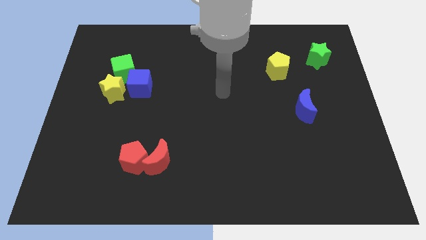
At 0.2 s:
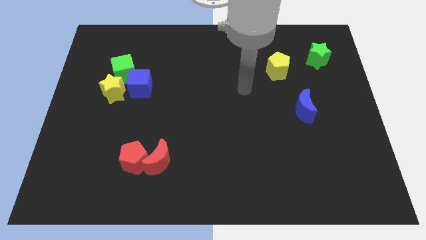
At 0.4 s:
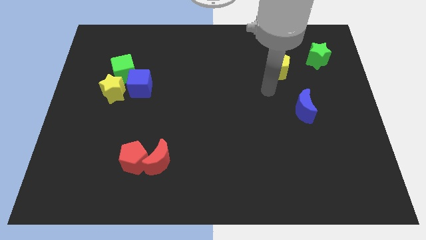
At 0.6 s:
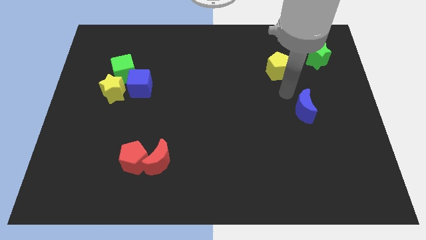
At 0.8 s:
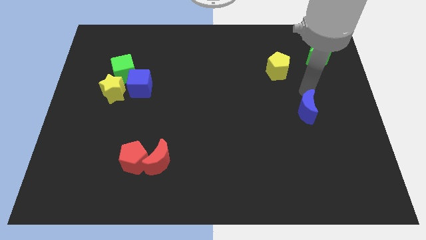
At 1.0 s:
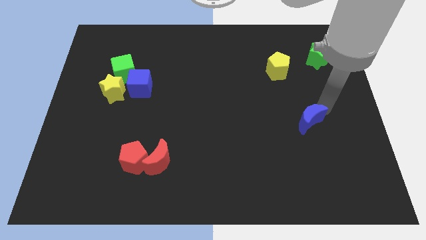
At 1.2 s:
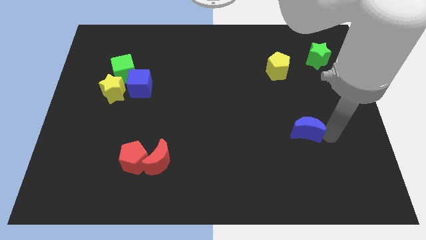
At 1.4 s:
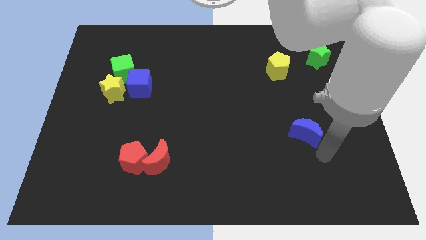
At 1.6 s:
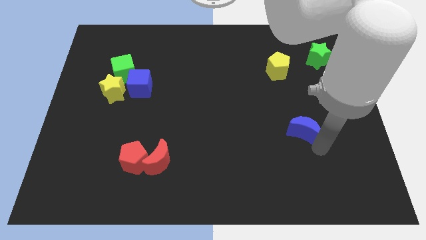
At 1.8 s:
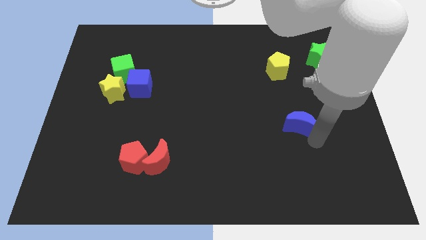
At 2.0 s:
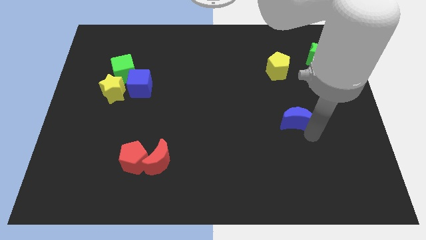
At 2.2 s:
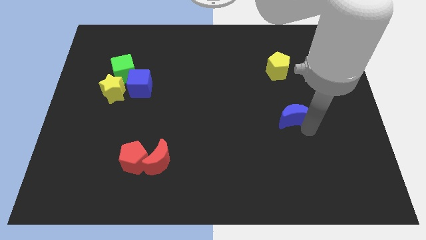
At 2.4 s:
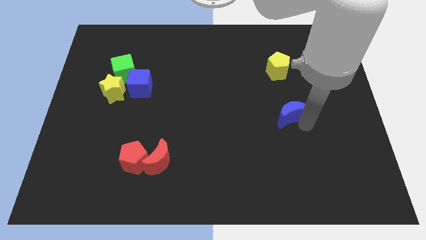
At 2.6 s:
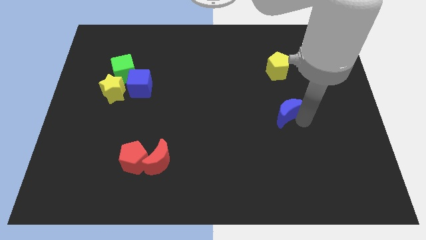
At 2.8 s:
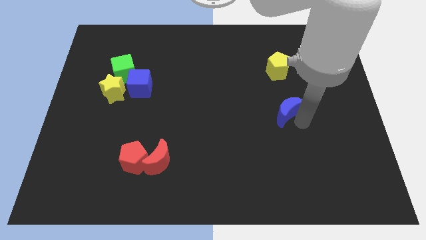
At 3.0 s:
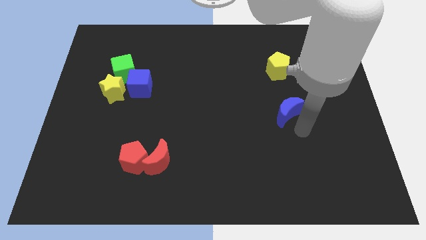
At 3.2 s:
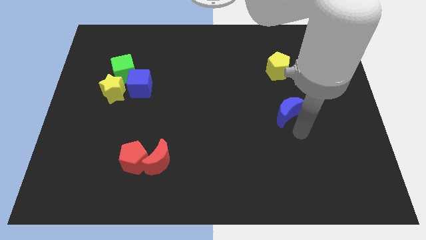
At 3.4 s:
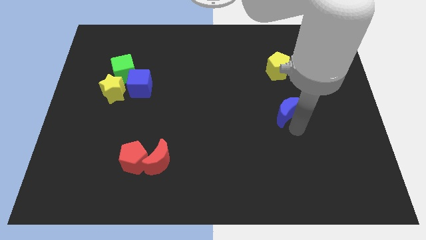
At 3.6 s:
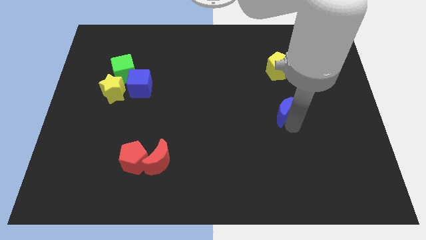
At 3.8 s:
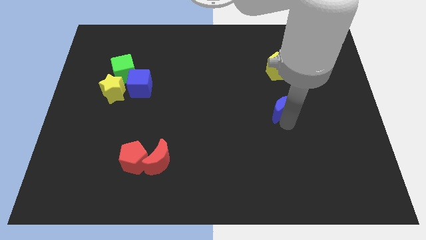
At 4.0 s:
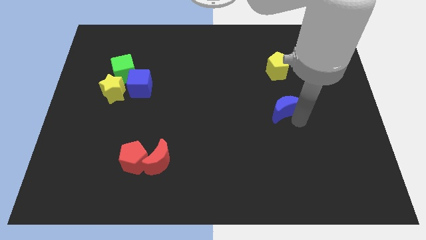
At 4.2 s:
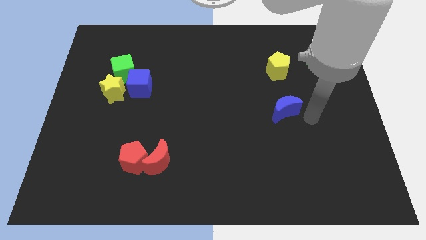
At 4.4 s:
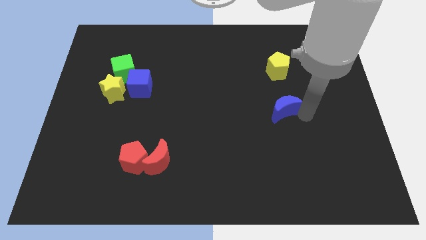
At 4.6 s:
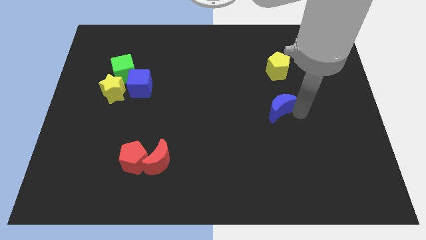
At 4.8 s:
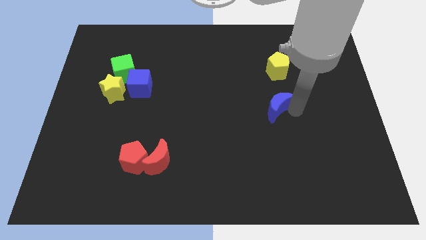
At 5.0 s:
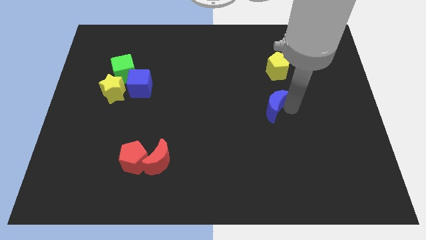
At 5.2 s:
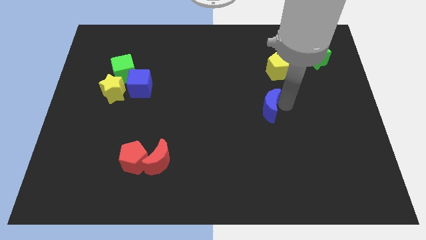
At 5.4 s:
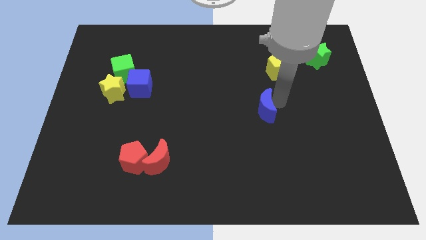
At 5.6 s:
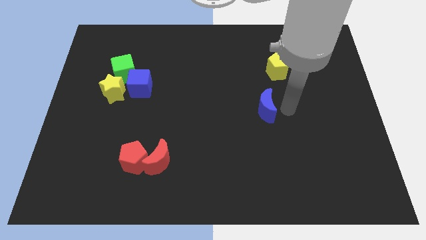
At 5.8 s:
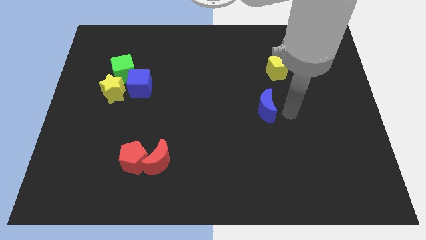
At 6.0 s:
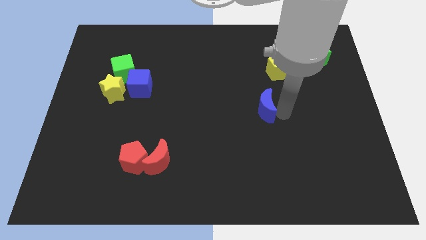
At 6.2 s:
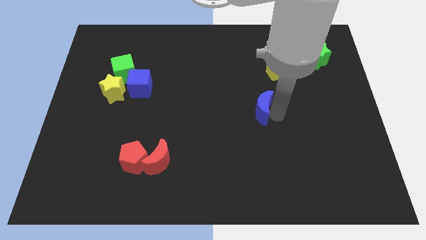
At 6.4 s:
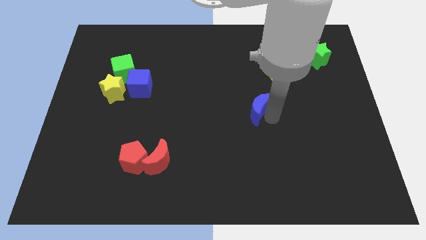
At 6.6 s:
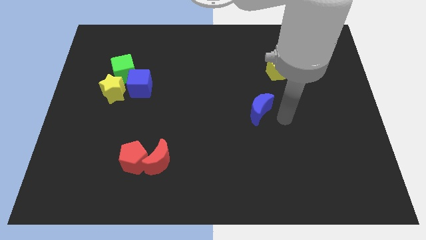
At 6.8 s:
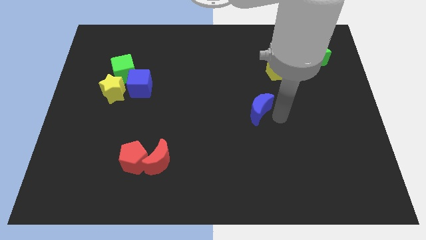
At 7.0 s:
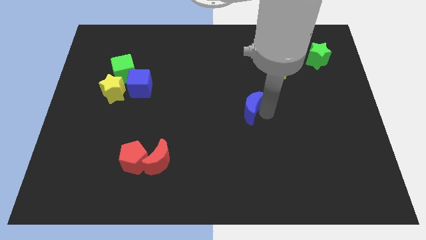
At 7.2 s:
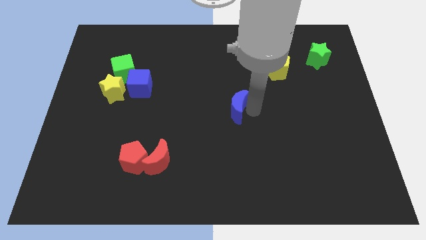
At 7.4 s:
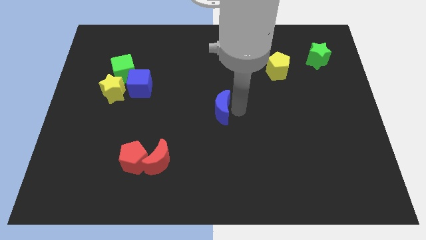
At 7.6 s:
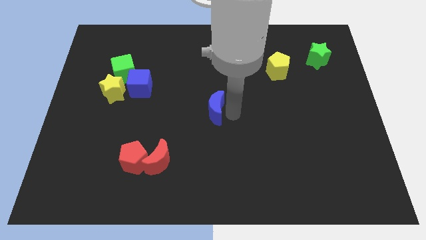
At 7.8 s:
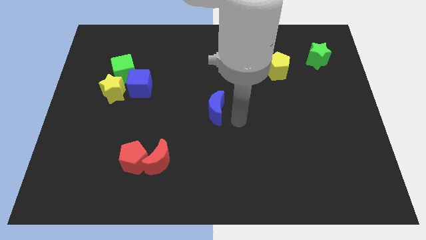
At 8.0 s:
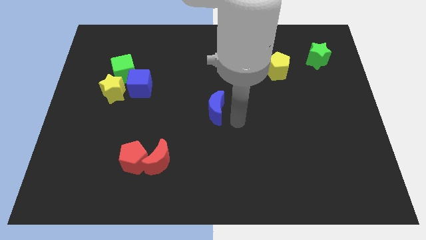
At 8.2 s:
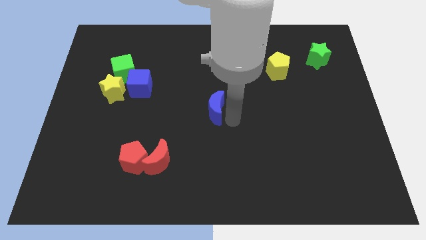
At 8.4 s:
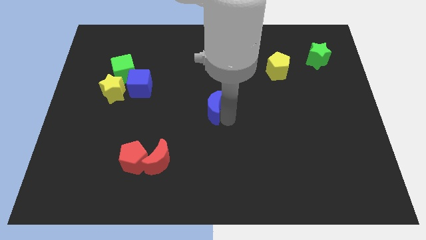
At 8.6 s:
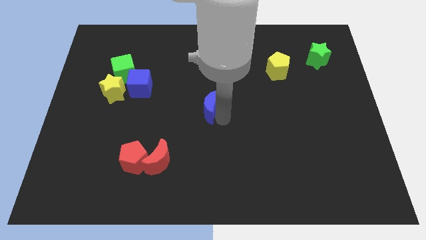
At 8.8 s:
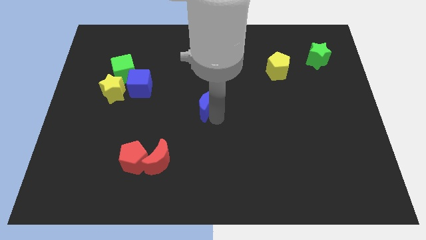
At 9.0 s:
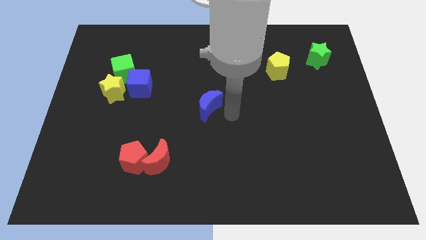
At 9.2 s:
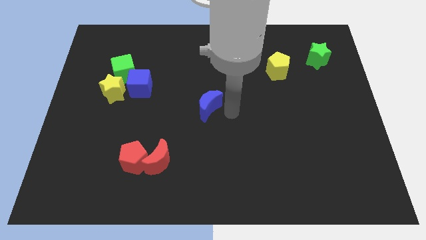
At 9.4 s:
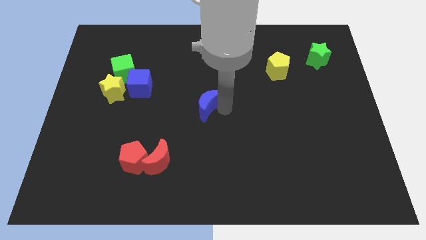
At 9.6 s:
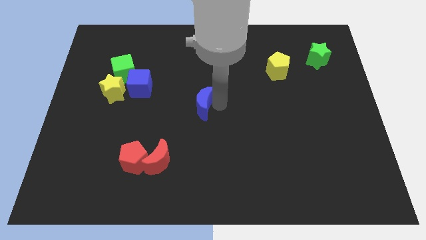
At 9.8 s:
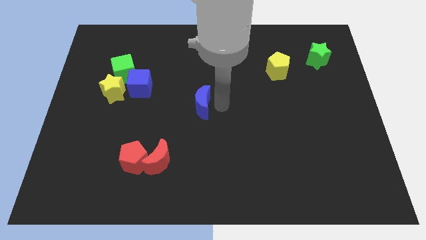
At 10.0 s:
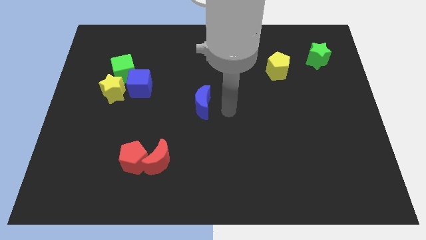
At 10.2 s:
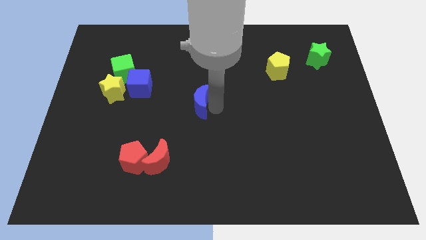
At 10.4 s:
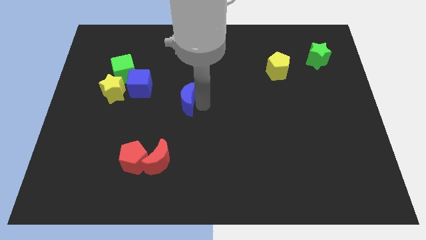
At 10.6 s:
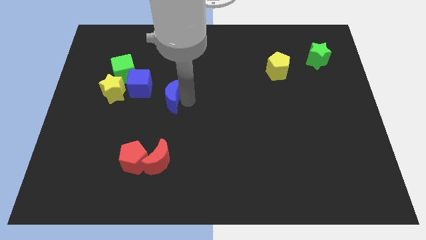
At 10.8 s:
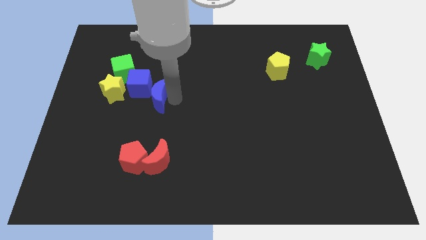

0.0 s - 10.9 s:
push the blue moon diagonally down and to the right of the green cube

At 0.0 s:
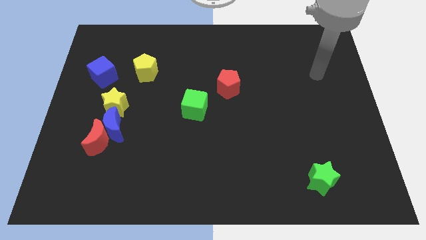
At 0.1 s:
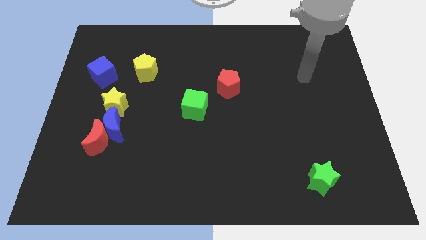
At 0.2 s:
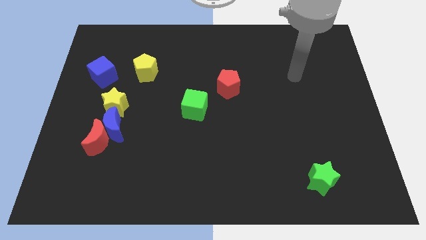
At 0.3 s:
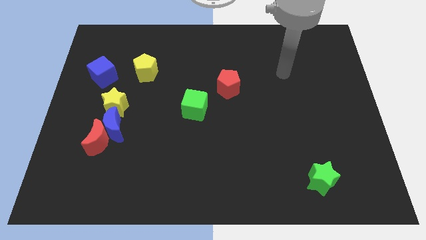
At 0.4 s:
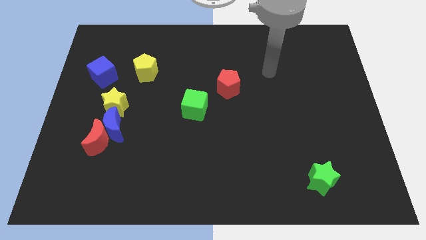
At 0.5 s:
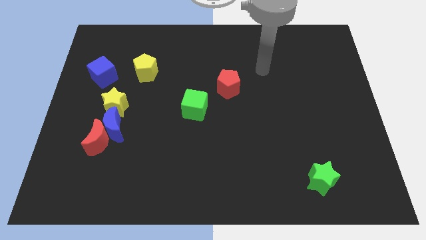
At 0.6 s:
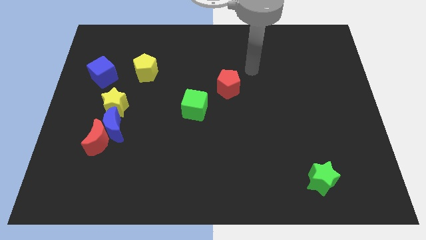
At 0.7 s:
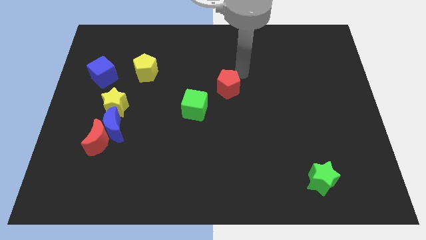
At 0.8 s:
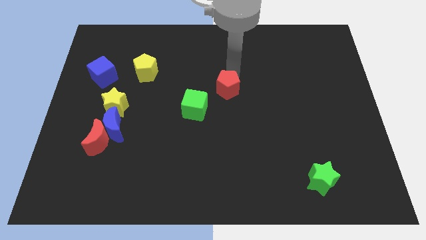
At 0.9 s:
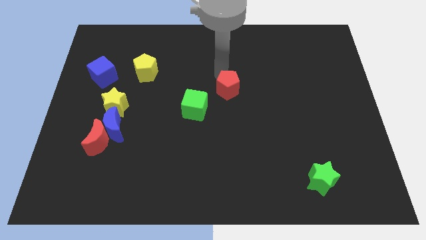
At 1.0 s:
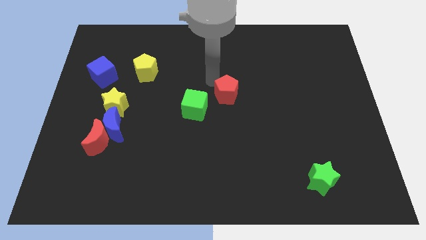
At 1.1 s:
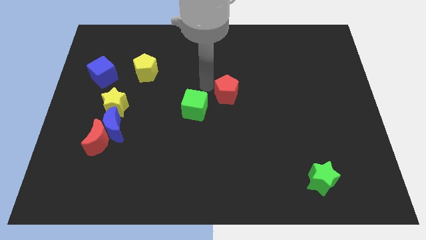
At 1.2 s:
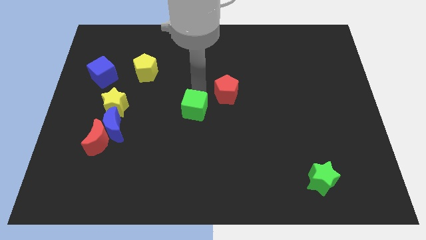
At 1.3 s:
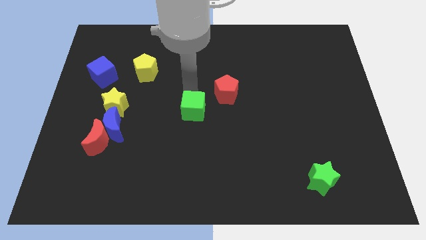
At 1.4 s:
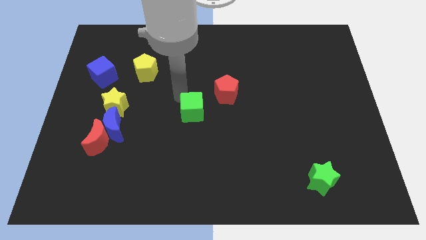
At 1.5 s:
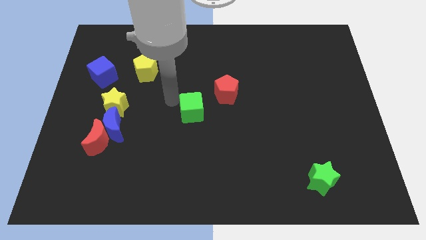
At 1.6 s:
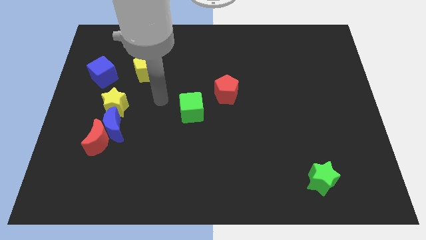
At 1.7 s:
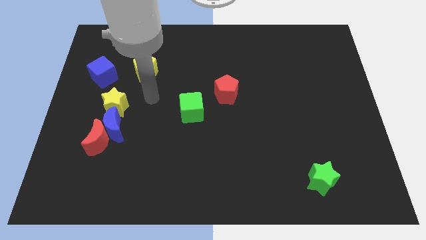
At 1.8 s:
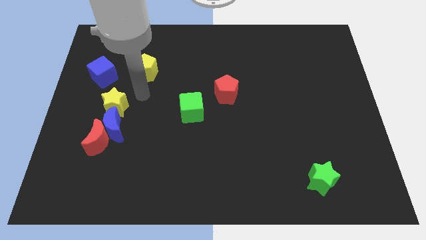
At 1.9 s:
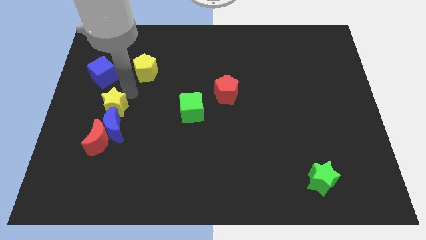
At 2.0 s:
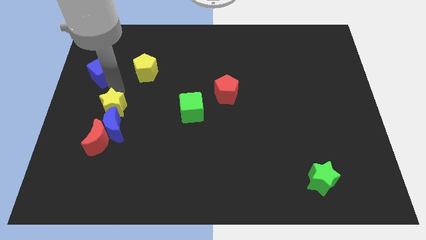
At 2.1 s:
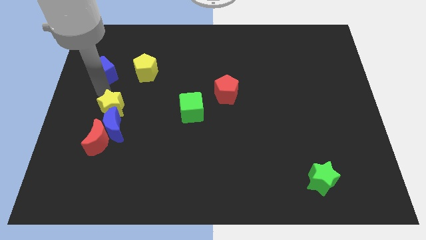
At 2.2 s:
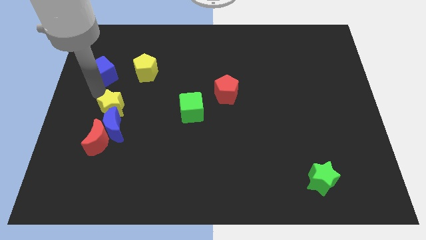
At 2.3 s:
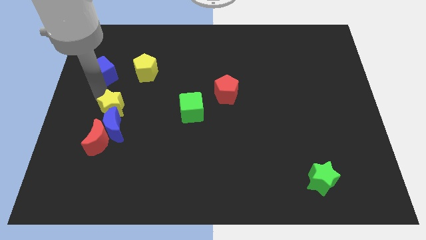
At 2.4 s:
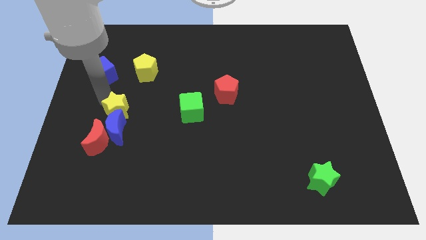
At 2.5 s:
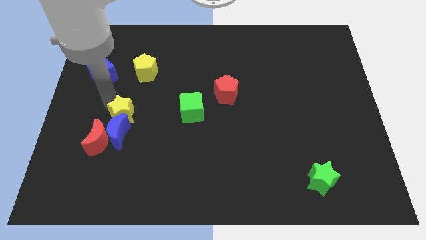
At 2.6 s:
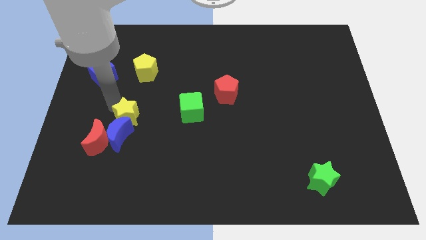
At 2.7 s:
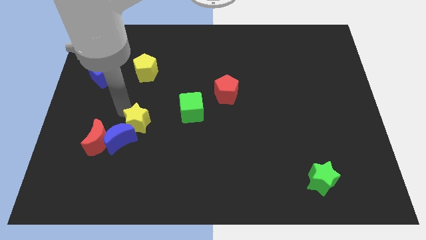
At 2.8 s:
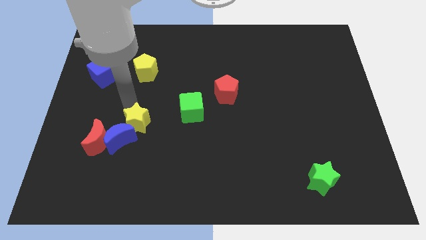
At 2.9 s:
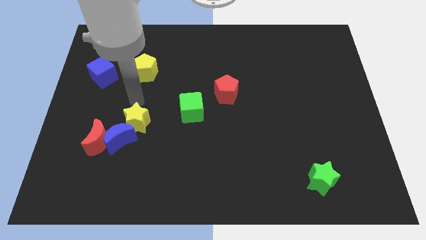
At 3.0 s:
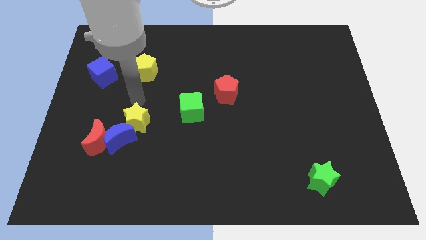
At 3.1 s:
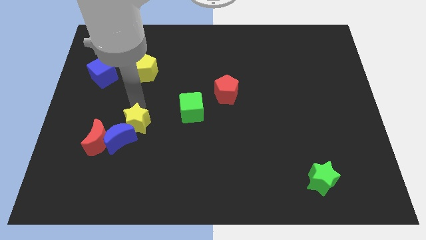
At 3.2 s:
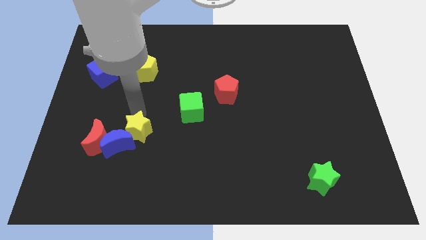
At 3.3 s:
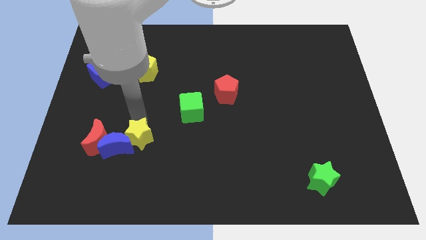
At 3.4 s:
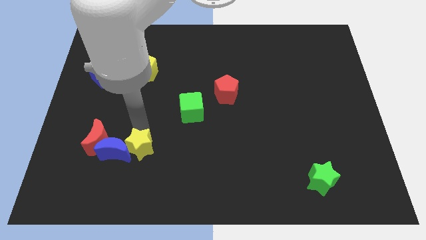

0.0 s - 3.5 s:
move the yellow star to the bottom right side of the blue moon
